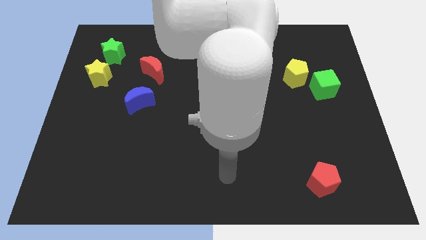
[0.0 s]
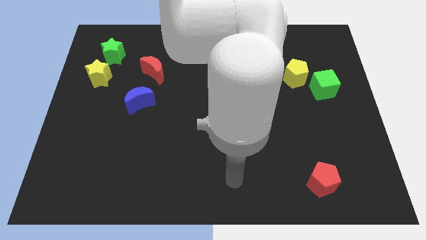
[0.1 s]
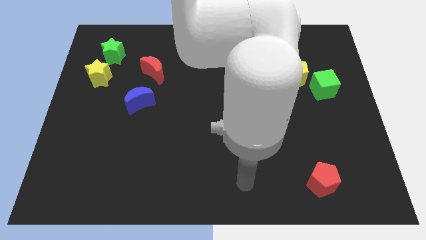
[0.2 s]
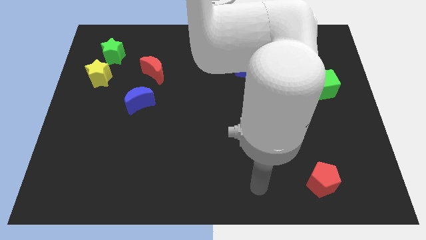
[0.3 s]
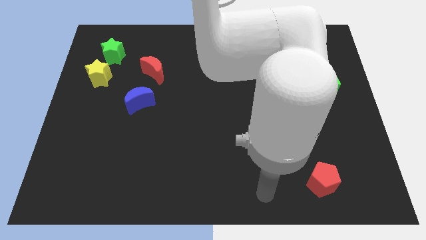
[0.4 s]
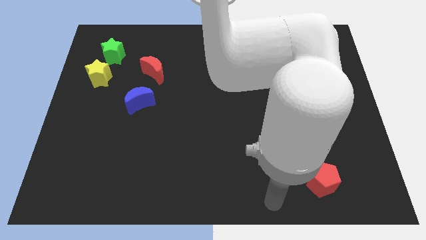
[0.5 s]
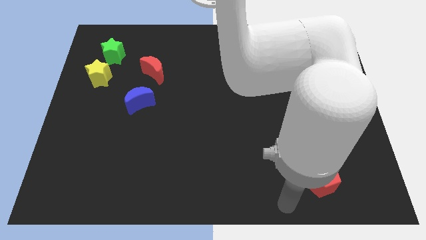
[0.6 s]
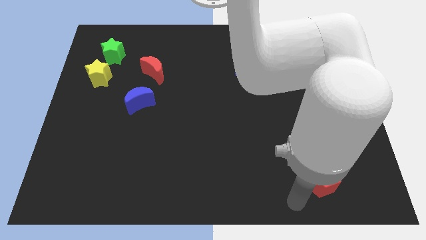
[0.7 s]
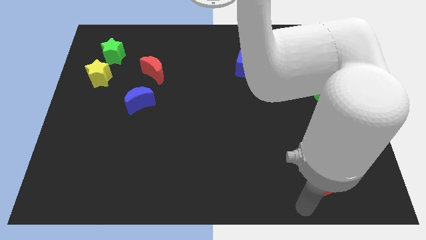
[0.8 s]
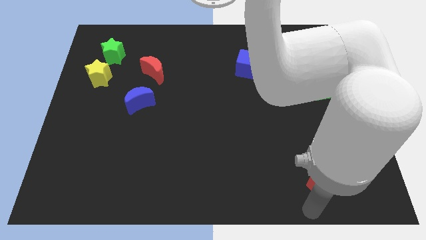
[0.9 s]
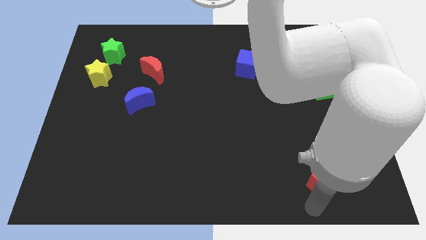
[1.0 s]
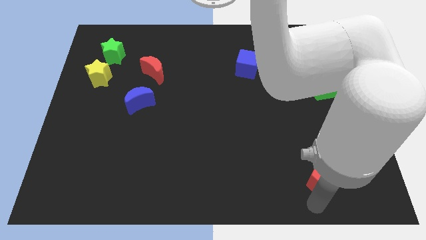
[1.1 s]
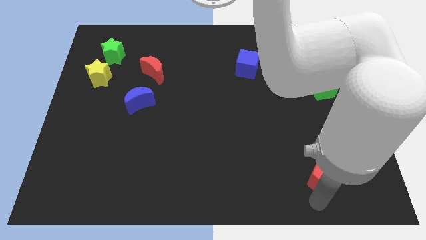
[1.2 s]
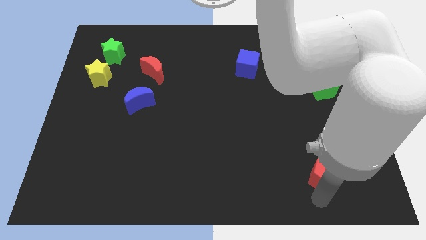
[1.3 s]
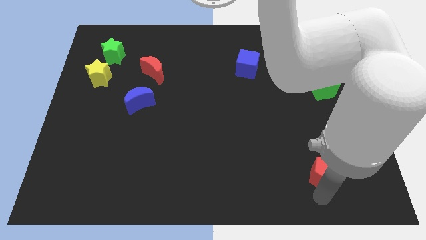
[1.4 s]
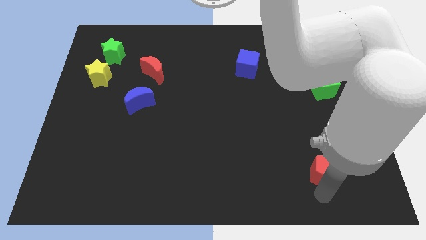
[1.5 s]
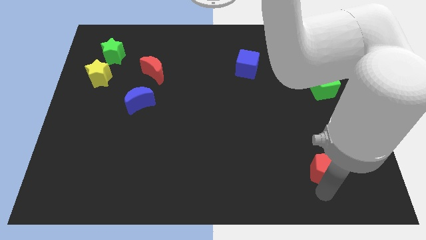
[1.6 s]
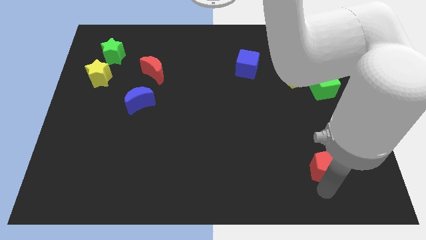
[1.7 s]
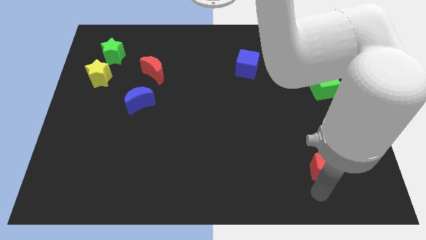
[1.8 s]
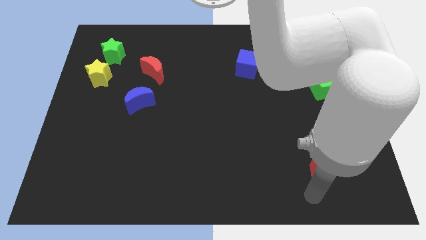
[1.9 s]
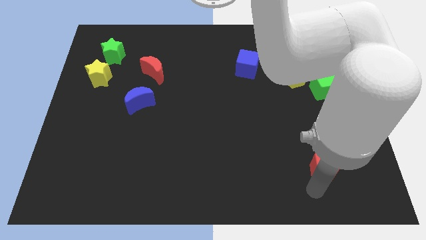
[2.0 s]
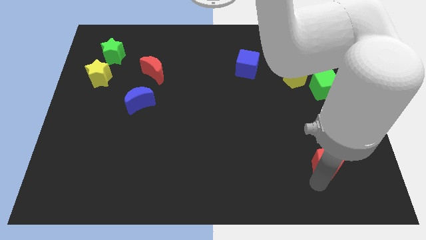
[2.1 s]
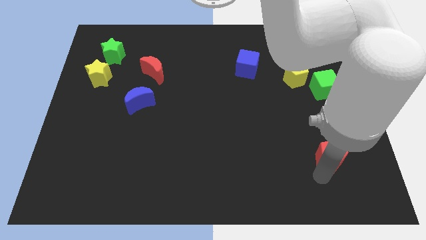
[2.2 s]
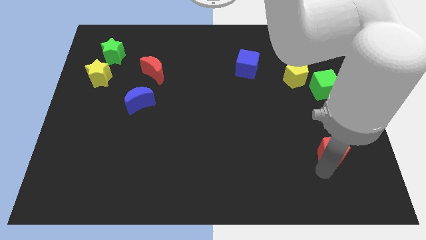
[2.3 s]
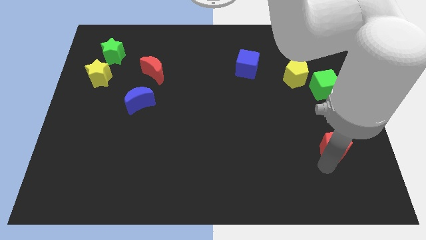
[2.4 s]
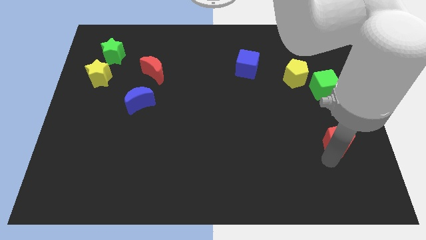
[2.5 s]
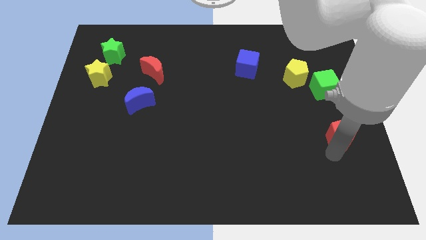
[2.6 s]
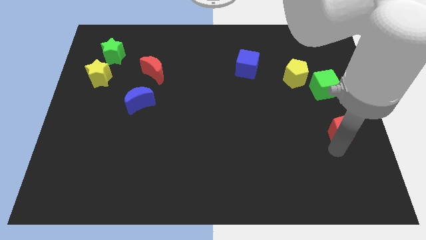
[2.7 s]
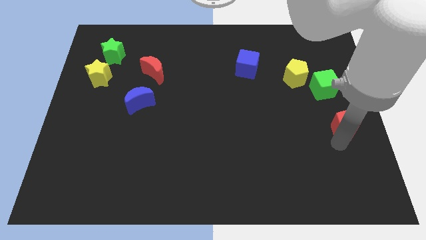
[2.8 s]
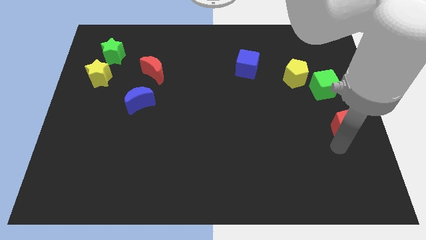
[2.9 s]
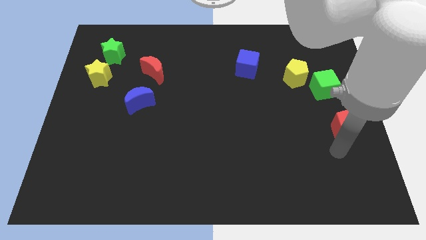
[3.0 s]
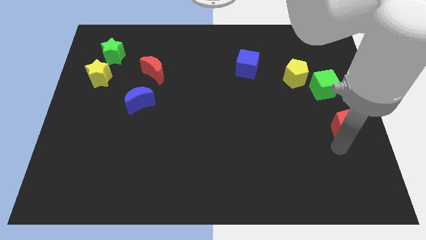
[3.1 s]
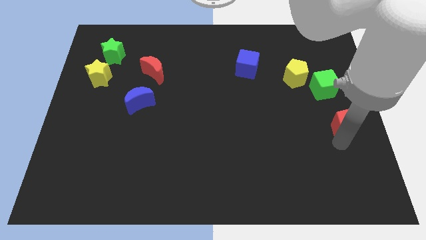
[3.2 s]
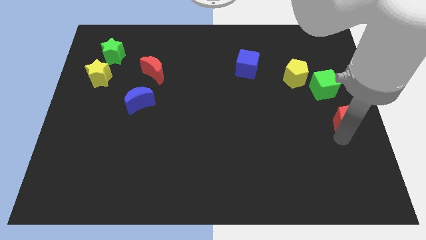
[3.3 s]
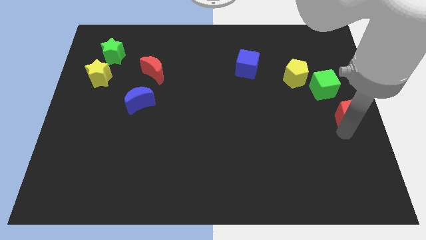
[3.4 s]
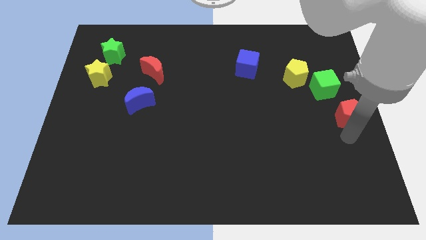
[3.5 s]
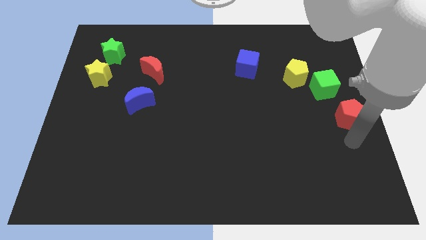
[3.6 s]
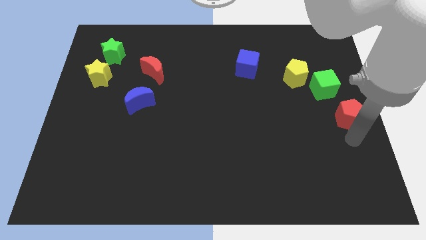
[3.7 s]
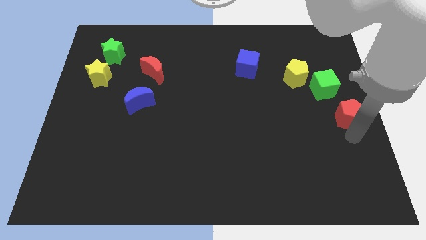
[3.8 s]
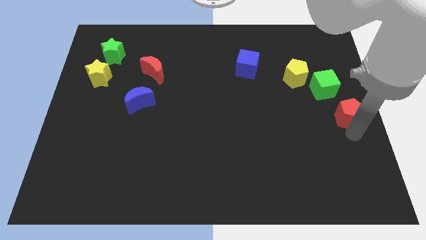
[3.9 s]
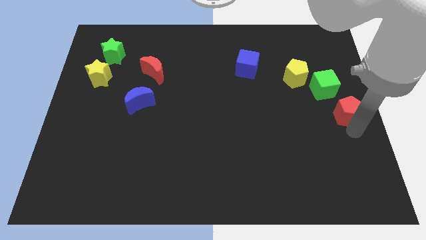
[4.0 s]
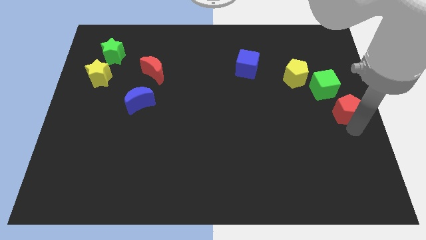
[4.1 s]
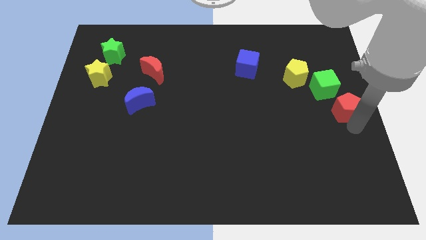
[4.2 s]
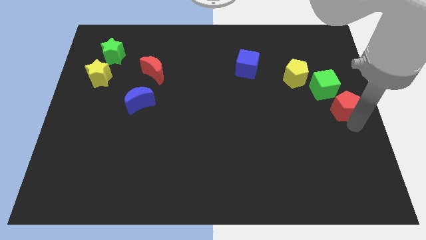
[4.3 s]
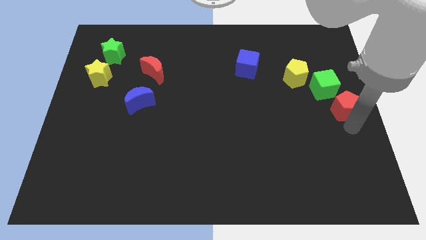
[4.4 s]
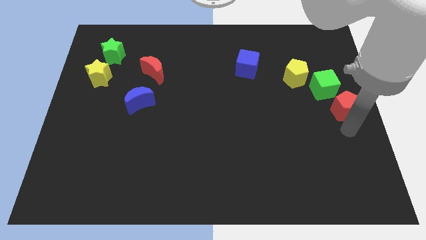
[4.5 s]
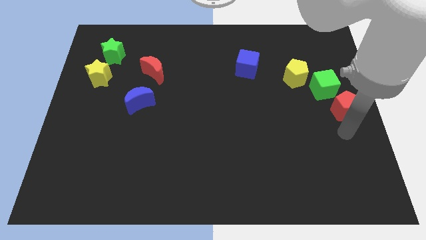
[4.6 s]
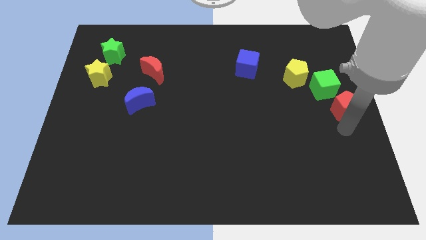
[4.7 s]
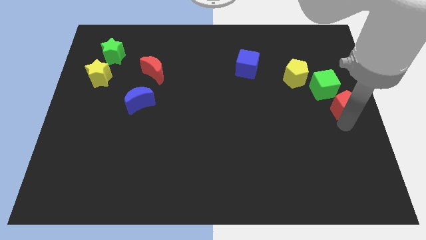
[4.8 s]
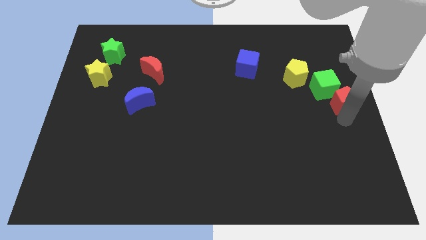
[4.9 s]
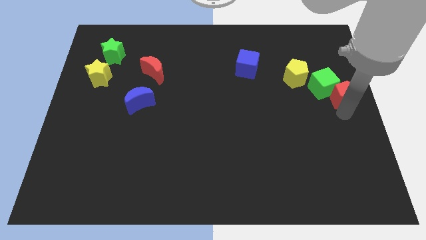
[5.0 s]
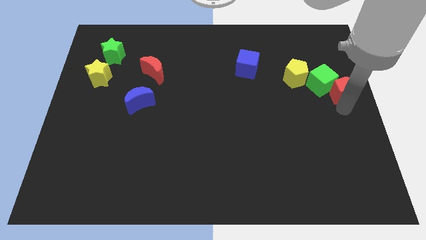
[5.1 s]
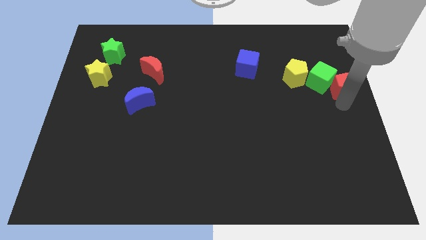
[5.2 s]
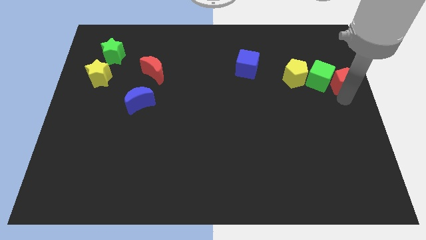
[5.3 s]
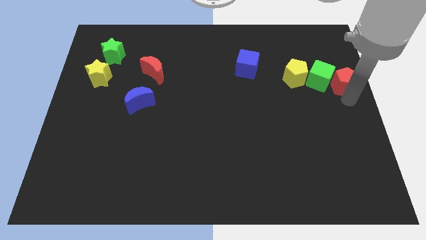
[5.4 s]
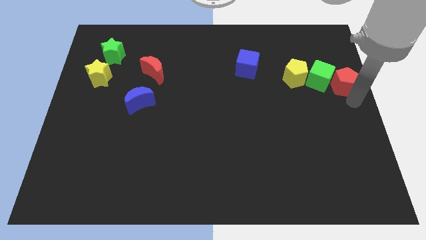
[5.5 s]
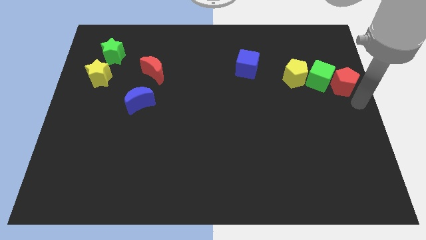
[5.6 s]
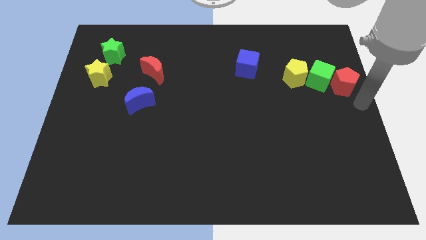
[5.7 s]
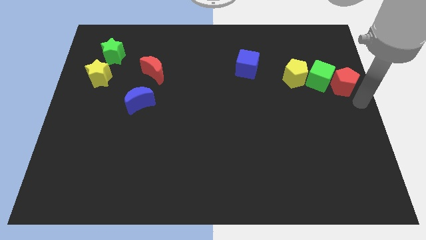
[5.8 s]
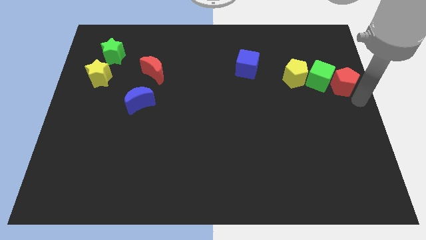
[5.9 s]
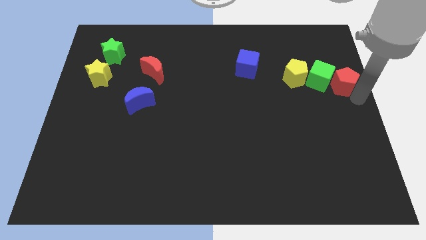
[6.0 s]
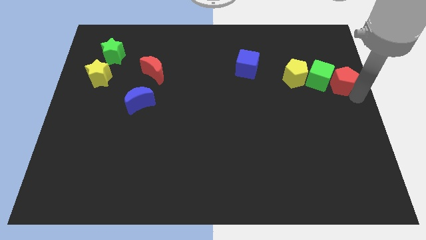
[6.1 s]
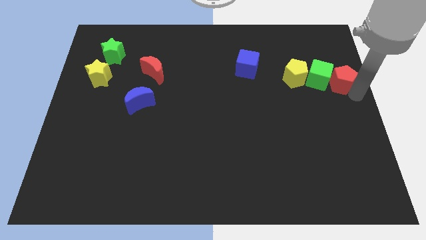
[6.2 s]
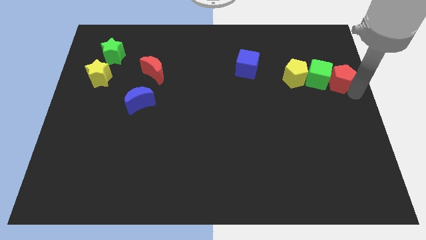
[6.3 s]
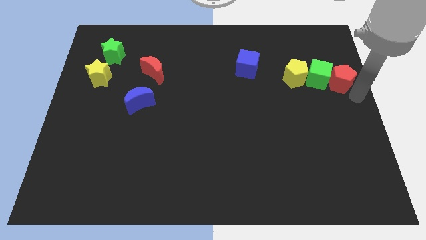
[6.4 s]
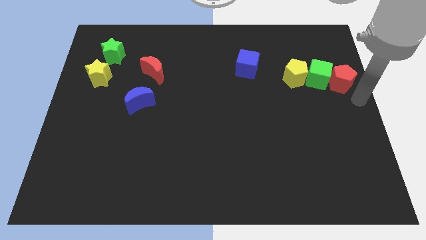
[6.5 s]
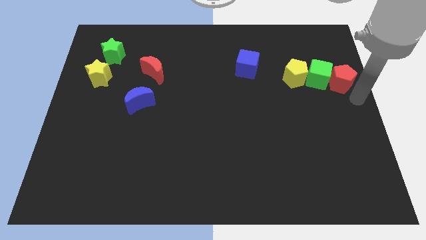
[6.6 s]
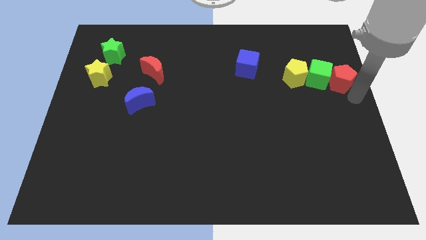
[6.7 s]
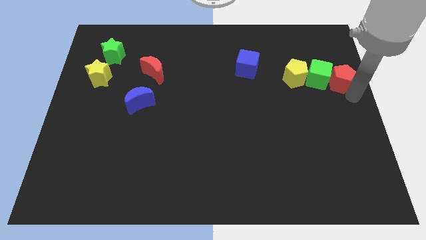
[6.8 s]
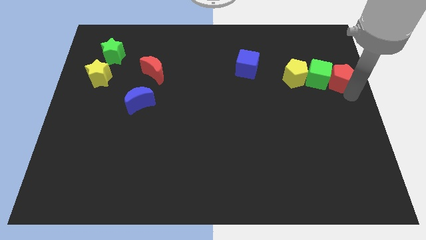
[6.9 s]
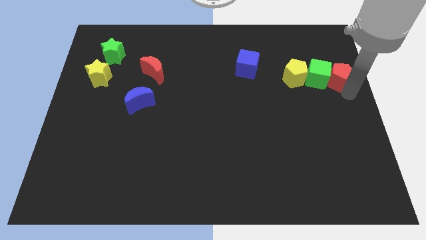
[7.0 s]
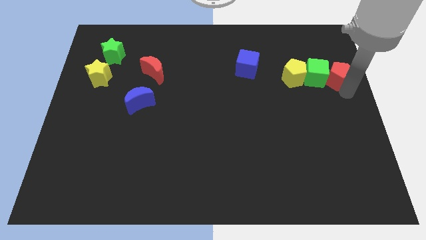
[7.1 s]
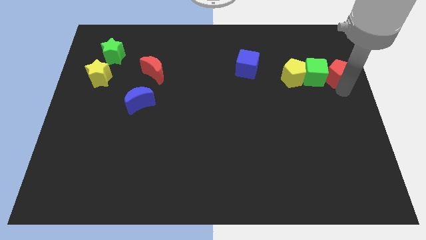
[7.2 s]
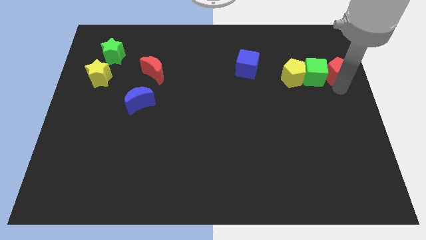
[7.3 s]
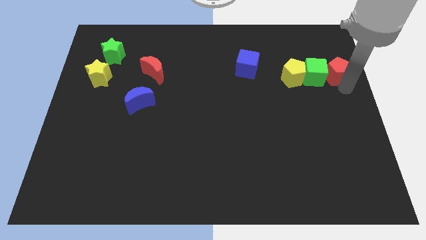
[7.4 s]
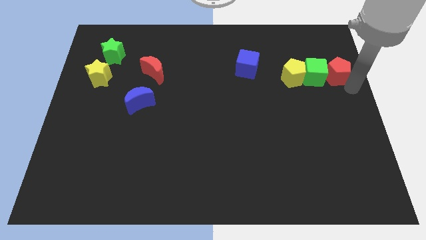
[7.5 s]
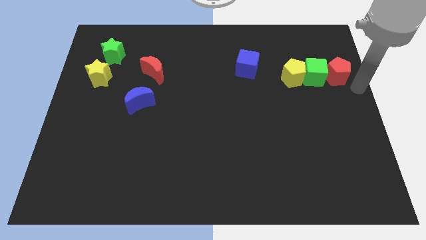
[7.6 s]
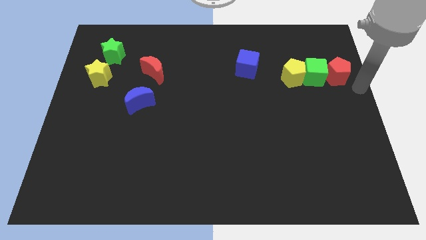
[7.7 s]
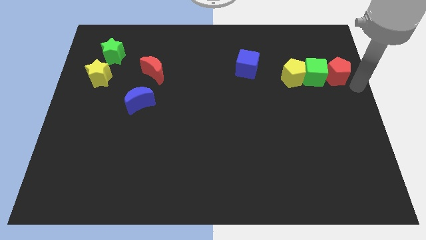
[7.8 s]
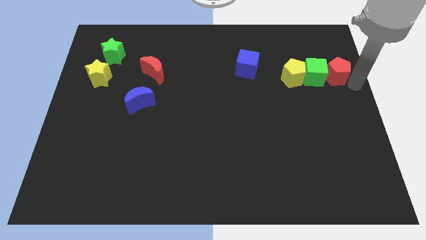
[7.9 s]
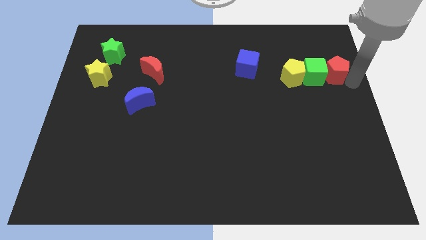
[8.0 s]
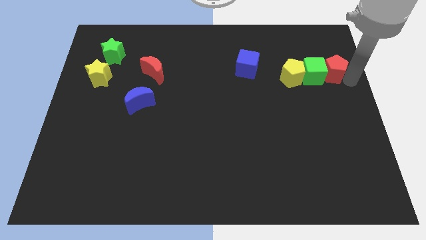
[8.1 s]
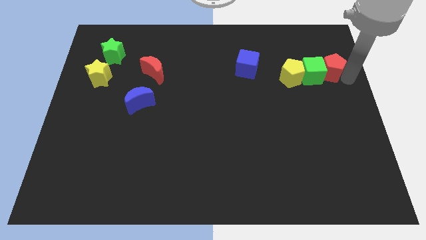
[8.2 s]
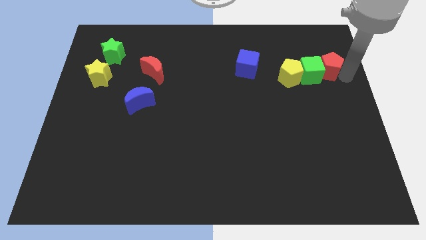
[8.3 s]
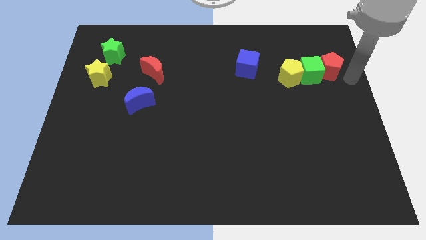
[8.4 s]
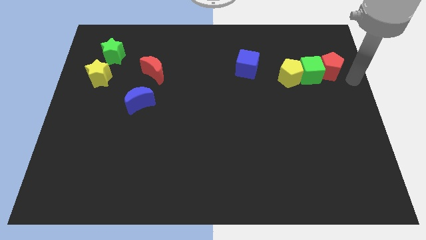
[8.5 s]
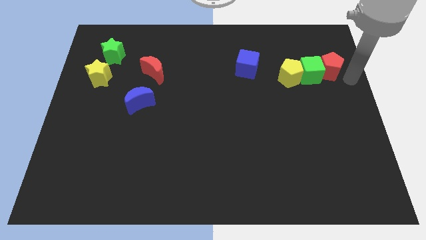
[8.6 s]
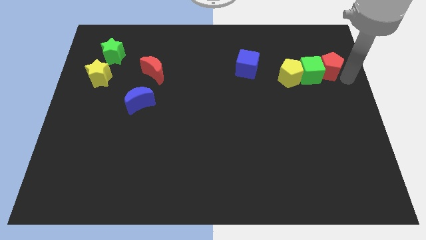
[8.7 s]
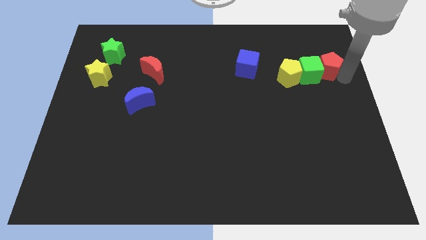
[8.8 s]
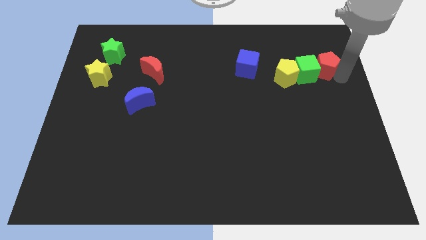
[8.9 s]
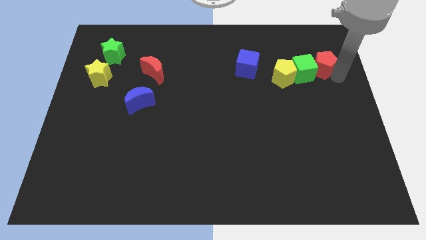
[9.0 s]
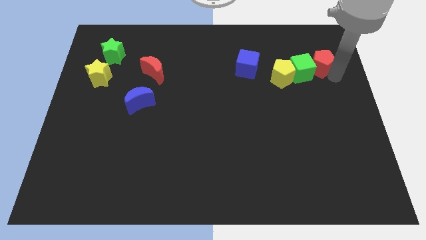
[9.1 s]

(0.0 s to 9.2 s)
push the red pentagon to the top right side of the yellow pentagon
